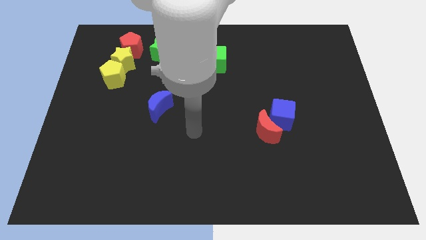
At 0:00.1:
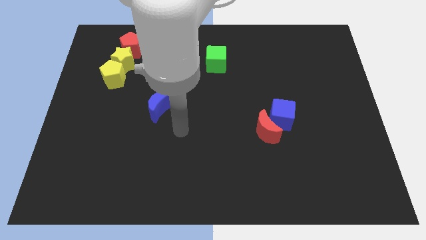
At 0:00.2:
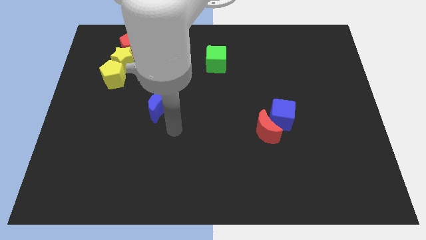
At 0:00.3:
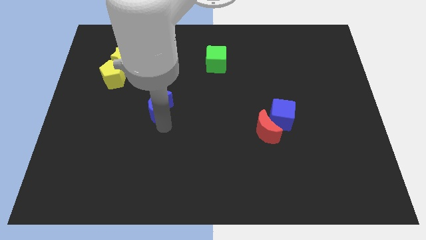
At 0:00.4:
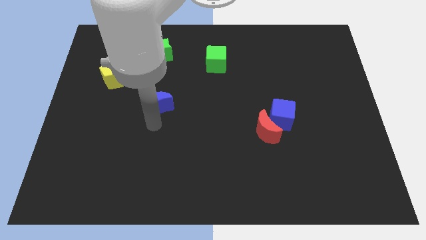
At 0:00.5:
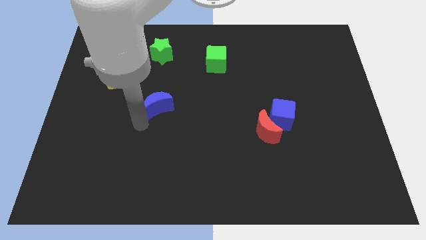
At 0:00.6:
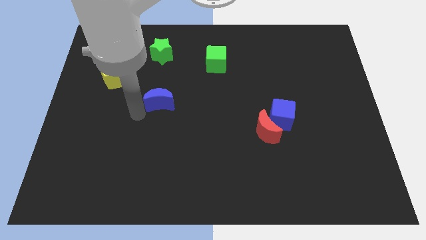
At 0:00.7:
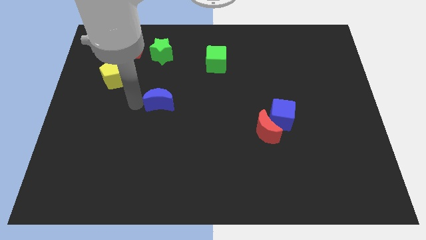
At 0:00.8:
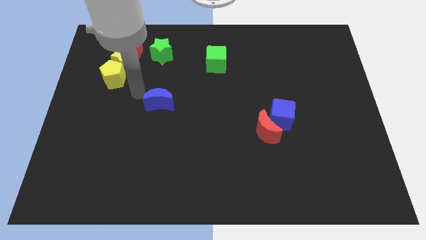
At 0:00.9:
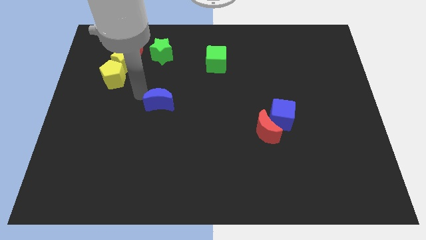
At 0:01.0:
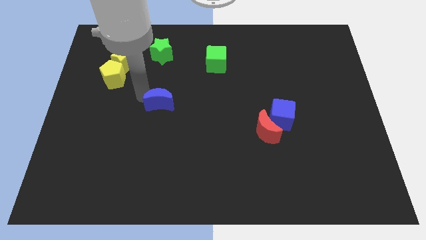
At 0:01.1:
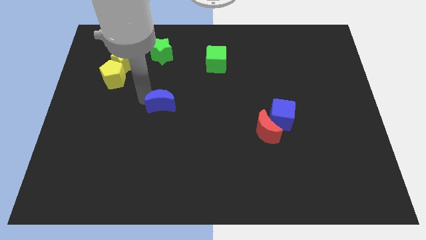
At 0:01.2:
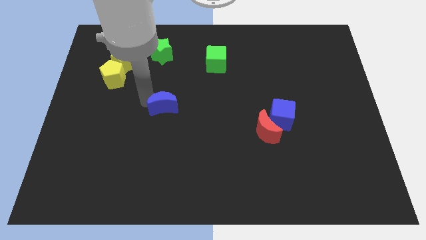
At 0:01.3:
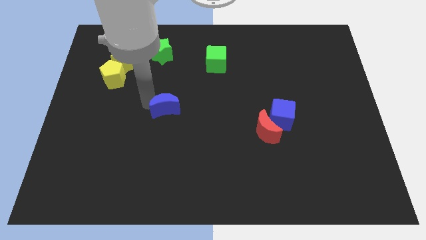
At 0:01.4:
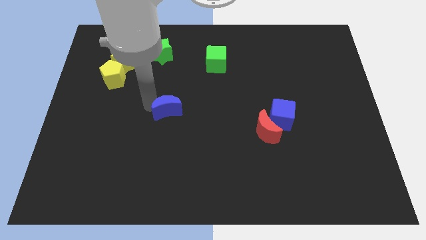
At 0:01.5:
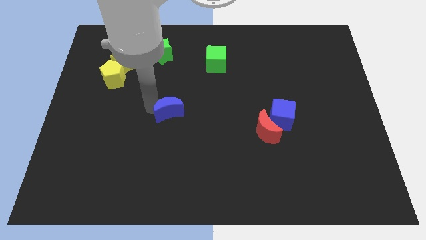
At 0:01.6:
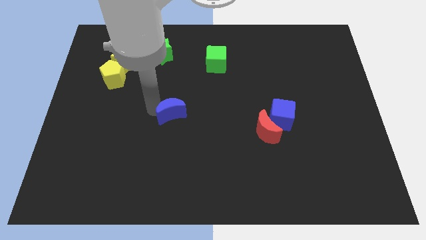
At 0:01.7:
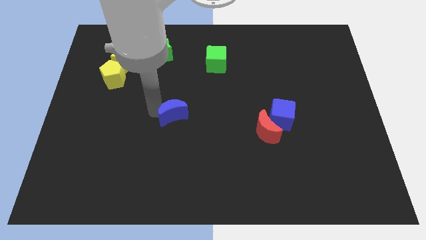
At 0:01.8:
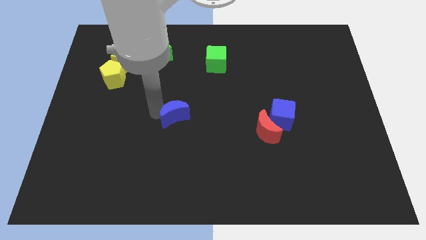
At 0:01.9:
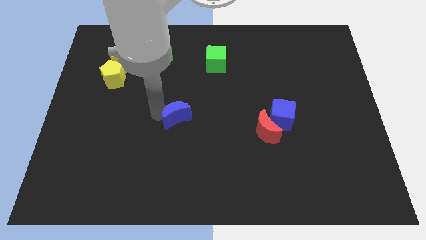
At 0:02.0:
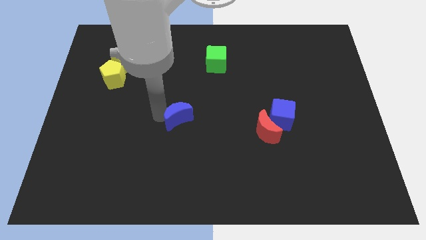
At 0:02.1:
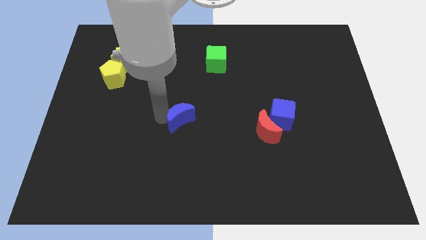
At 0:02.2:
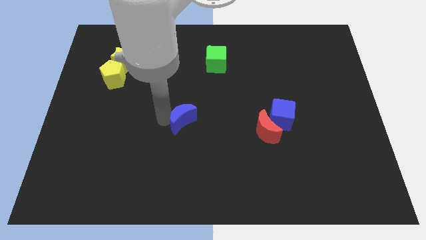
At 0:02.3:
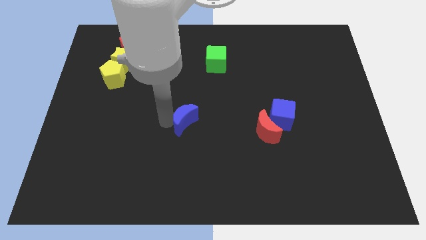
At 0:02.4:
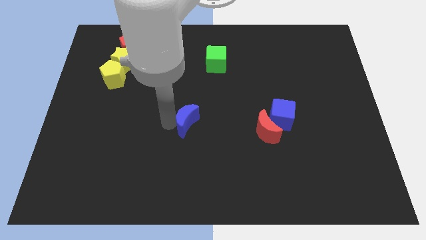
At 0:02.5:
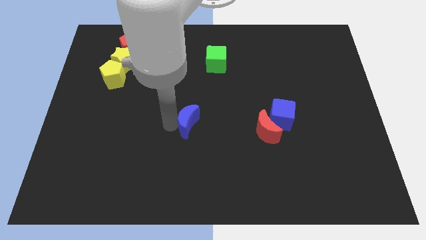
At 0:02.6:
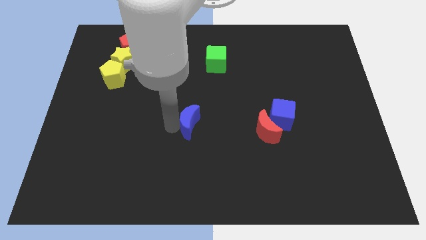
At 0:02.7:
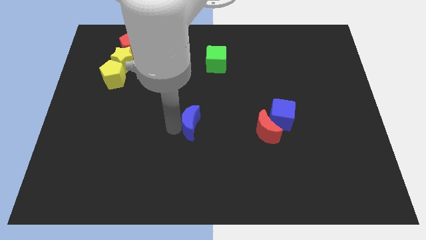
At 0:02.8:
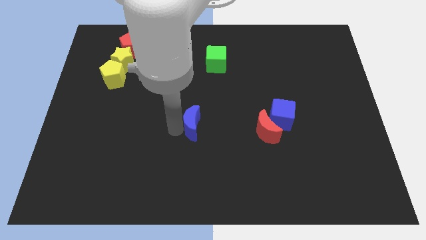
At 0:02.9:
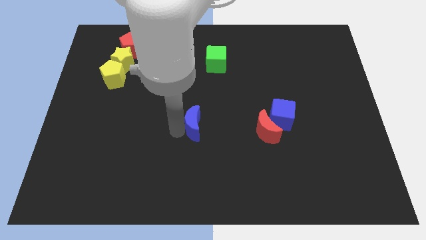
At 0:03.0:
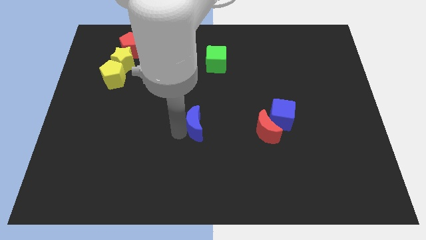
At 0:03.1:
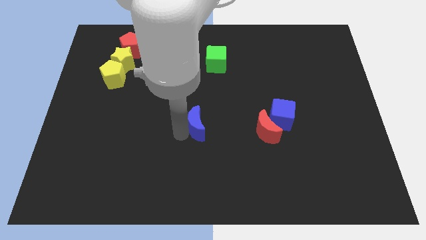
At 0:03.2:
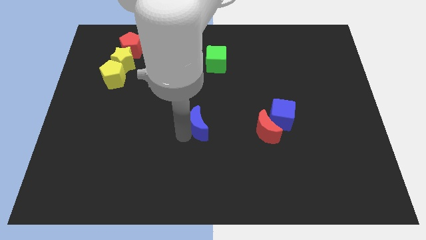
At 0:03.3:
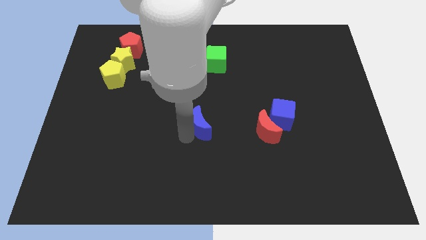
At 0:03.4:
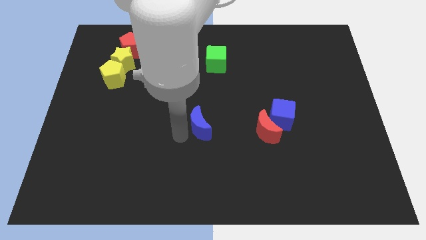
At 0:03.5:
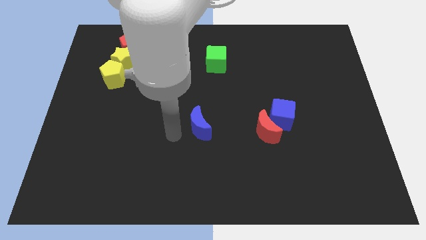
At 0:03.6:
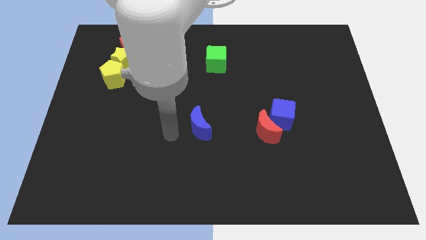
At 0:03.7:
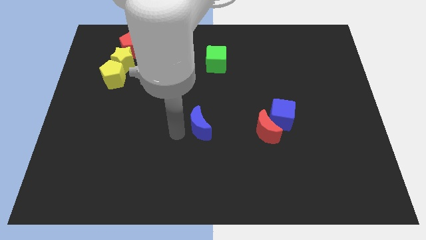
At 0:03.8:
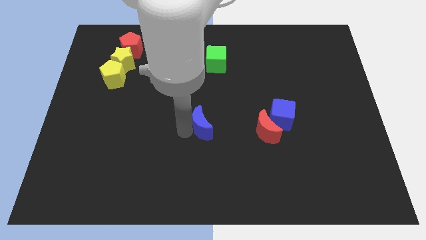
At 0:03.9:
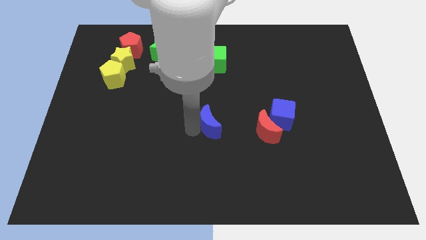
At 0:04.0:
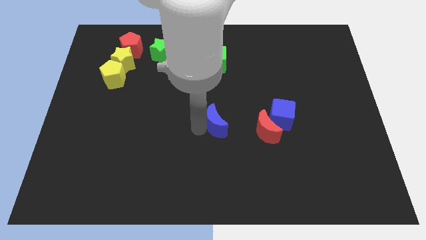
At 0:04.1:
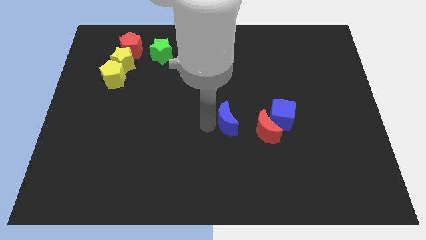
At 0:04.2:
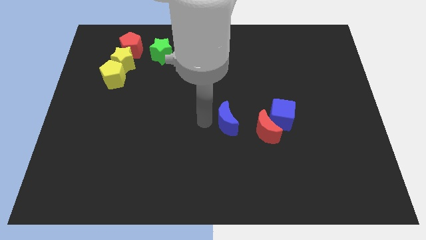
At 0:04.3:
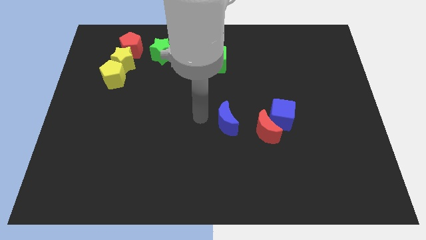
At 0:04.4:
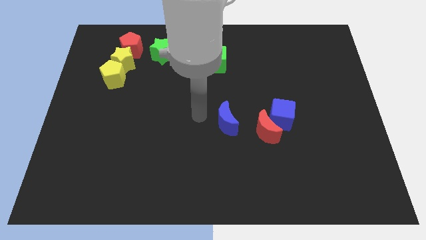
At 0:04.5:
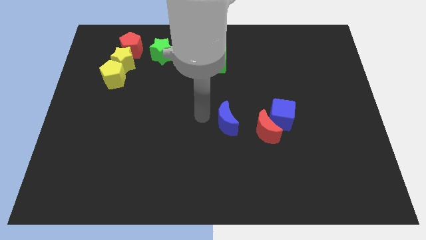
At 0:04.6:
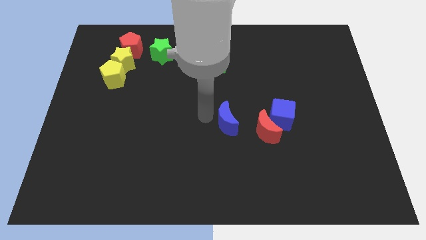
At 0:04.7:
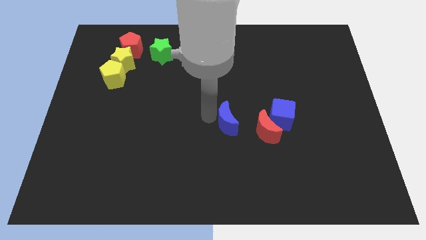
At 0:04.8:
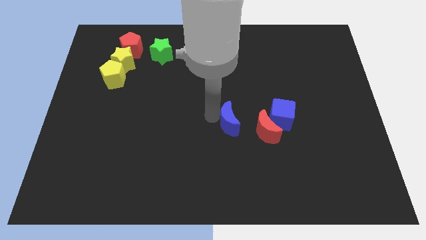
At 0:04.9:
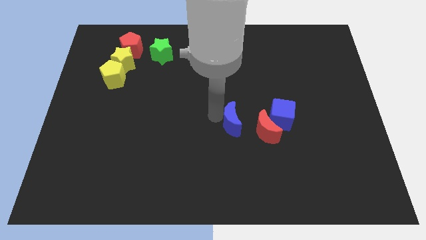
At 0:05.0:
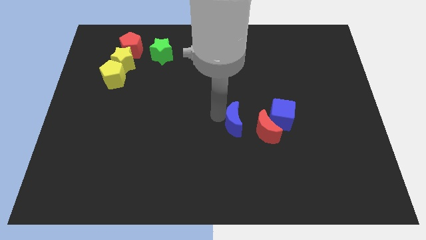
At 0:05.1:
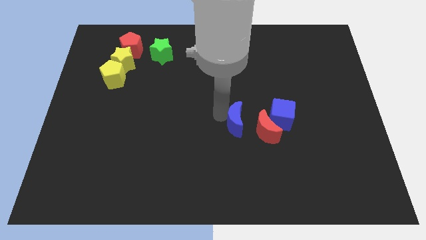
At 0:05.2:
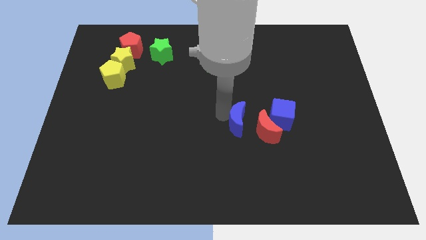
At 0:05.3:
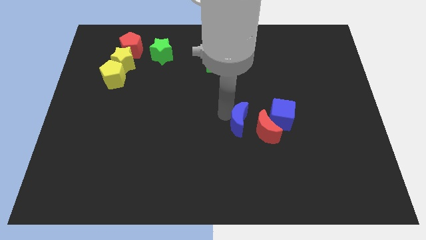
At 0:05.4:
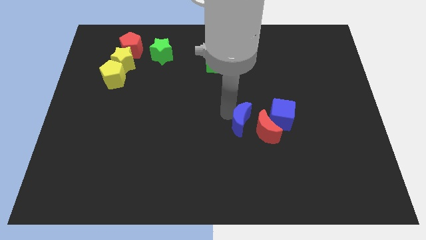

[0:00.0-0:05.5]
move the blue moon close to the red moon

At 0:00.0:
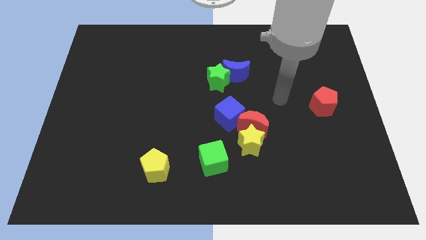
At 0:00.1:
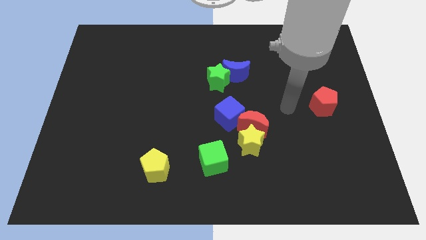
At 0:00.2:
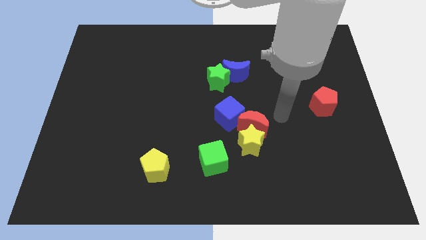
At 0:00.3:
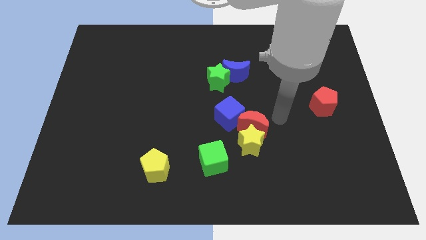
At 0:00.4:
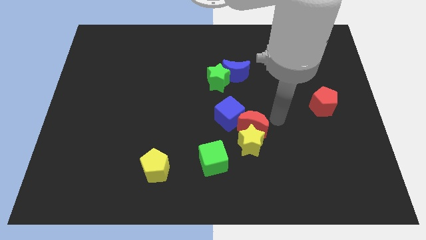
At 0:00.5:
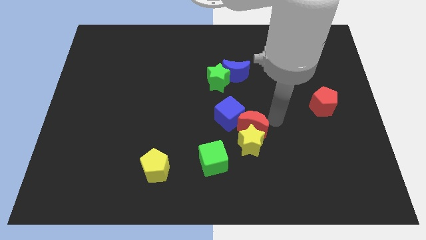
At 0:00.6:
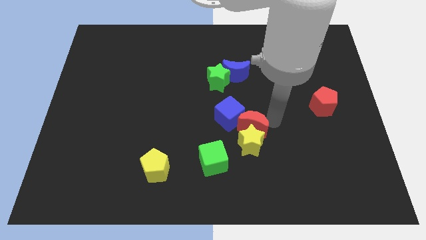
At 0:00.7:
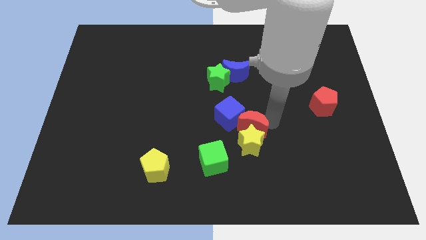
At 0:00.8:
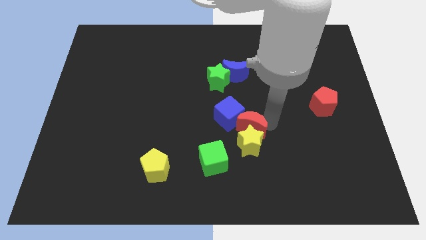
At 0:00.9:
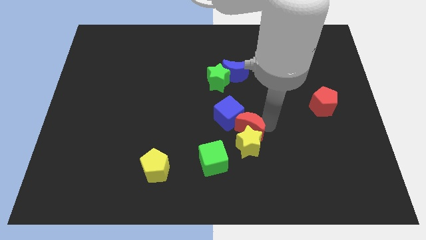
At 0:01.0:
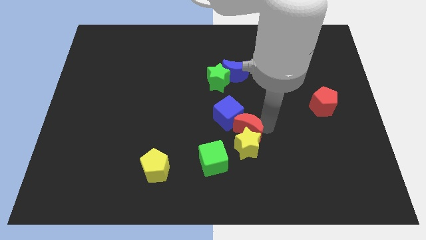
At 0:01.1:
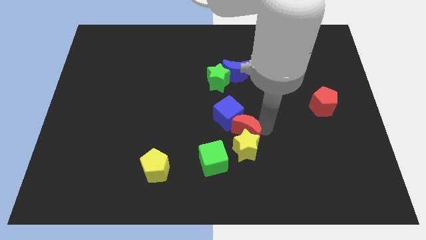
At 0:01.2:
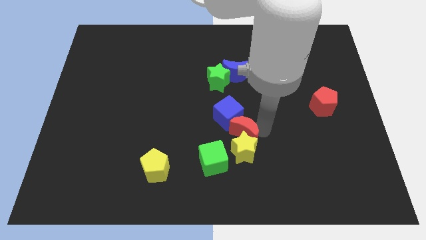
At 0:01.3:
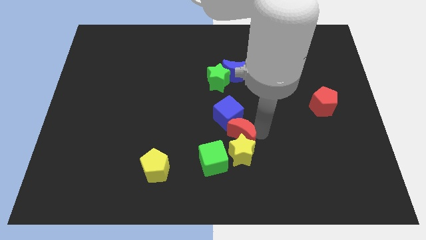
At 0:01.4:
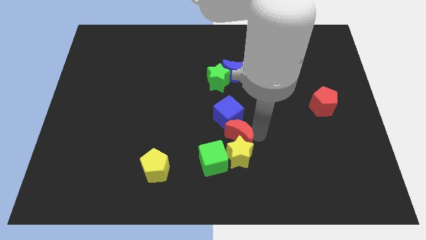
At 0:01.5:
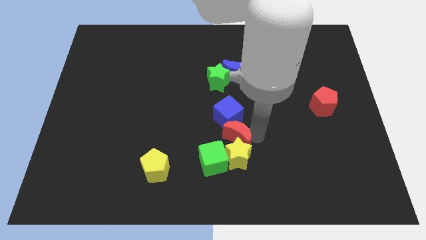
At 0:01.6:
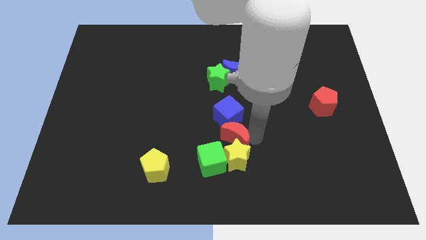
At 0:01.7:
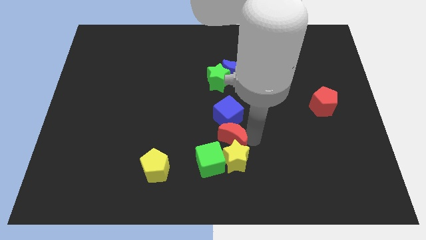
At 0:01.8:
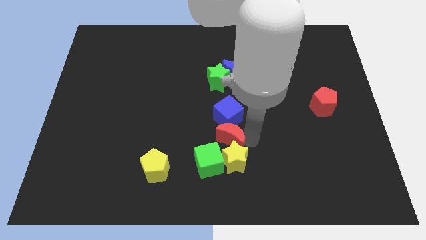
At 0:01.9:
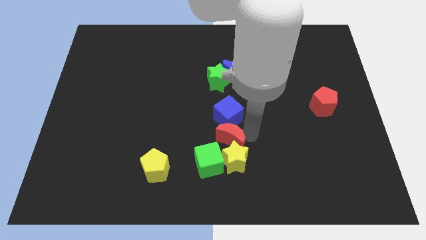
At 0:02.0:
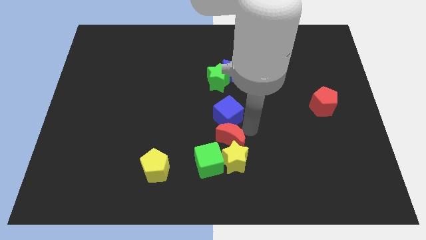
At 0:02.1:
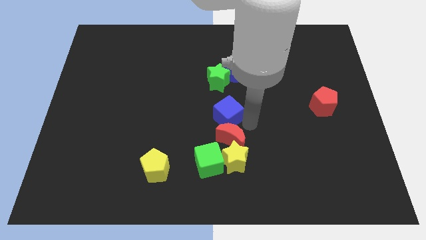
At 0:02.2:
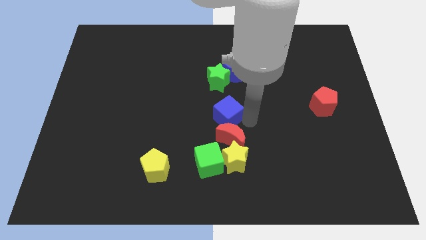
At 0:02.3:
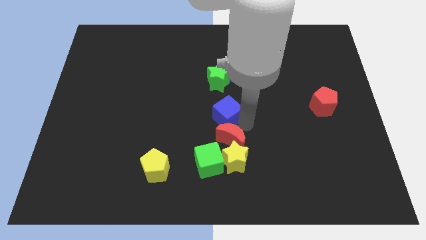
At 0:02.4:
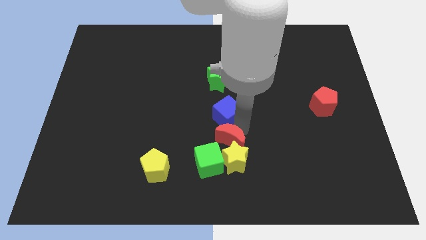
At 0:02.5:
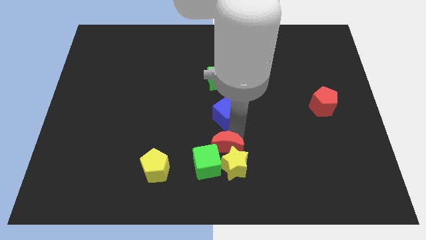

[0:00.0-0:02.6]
put the red moon next to the green cube
